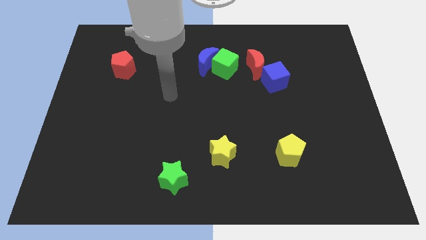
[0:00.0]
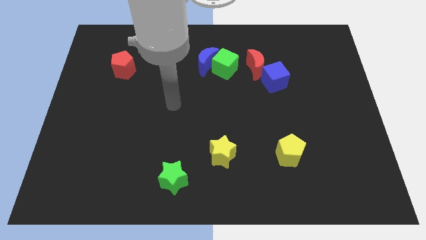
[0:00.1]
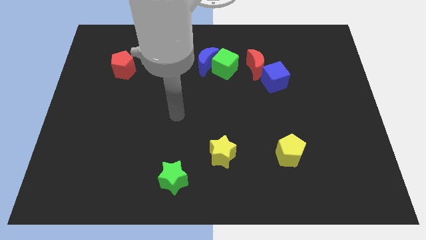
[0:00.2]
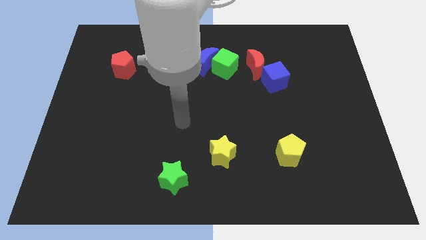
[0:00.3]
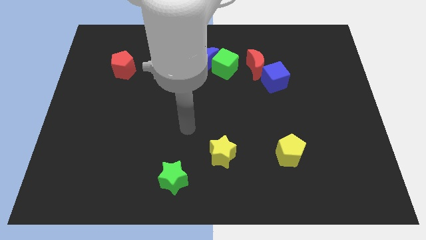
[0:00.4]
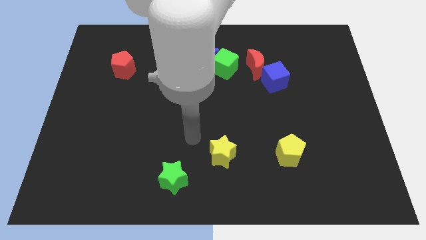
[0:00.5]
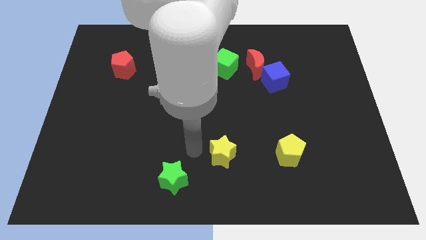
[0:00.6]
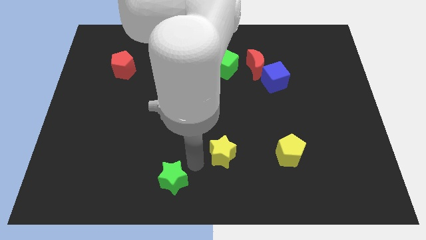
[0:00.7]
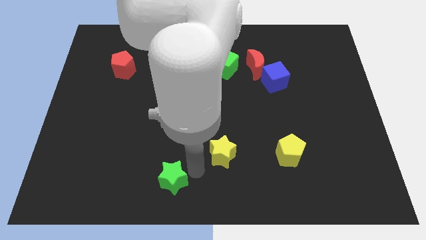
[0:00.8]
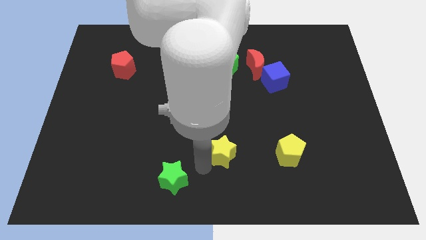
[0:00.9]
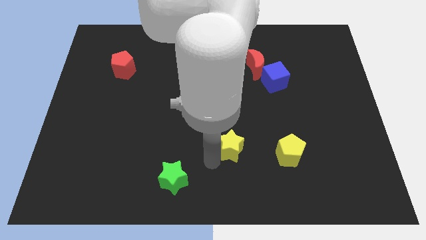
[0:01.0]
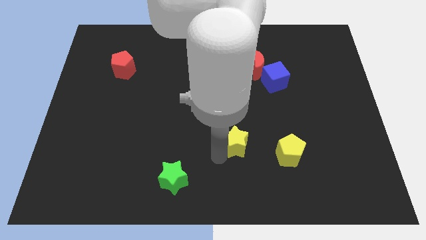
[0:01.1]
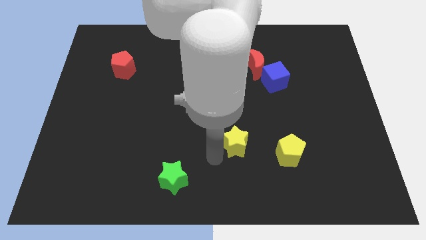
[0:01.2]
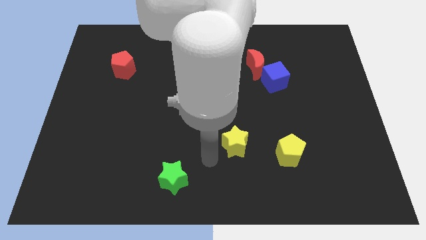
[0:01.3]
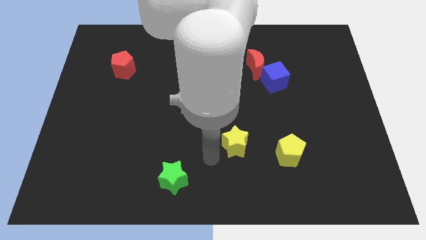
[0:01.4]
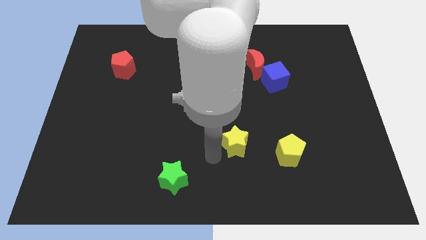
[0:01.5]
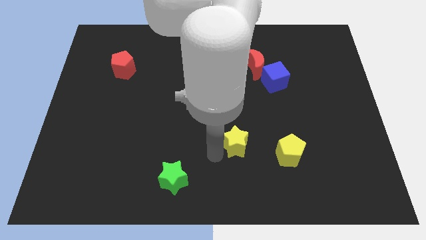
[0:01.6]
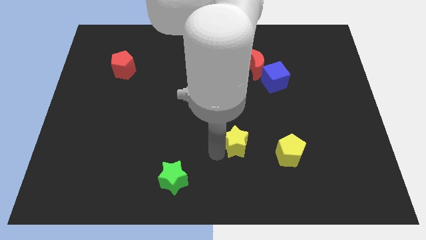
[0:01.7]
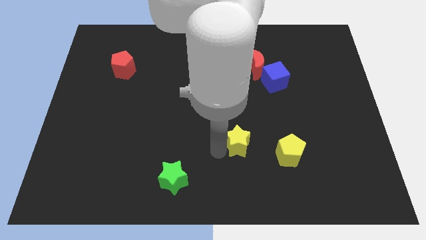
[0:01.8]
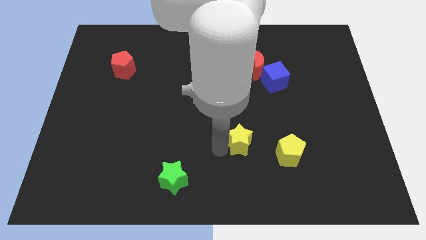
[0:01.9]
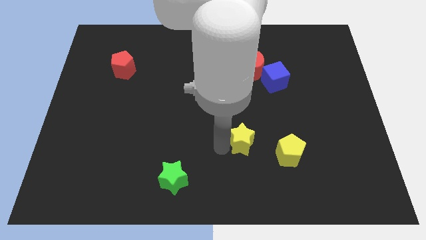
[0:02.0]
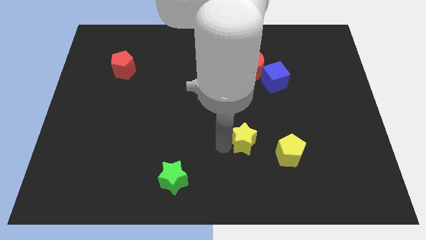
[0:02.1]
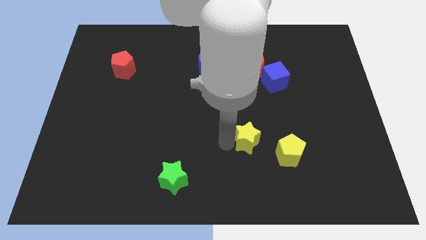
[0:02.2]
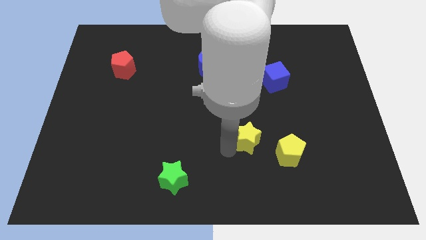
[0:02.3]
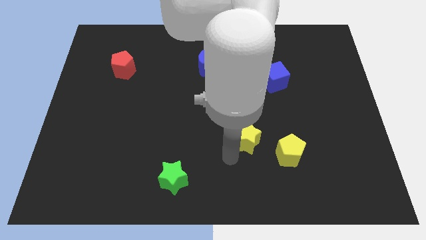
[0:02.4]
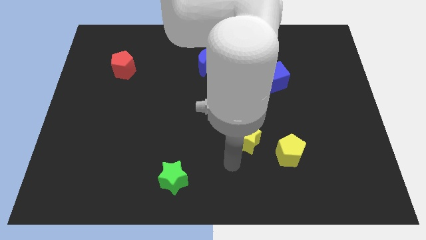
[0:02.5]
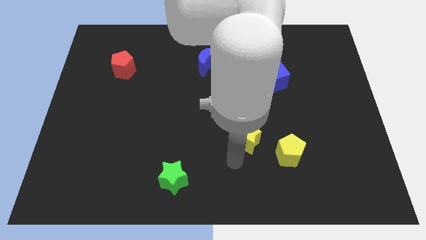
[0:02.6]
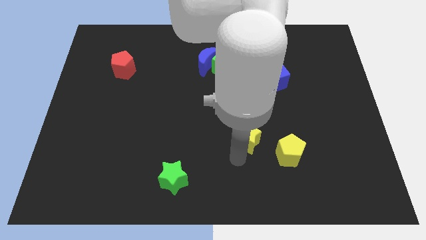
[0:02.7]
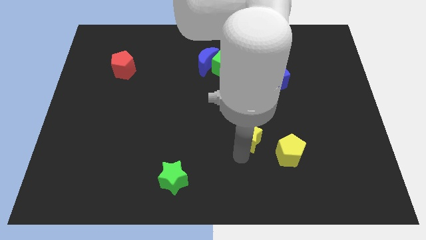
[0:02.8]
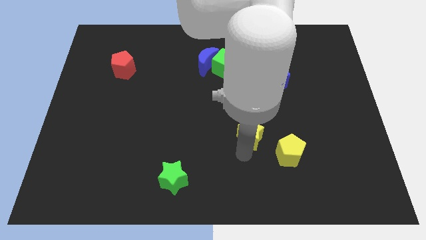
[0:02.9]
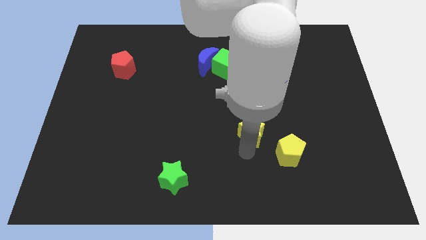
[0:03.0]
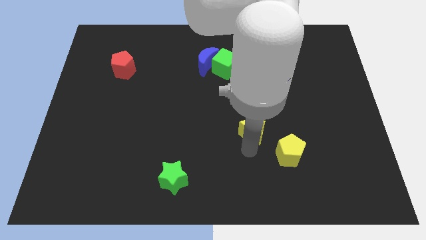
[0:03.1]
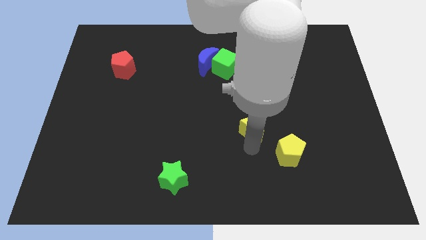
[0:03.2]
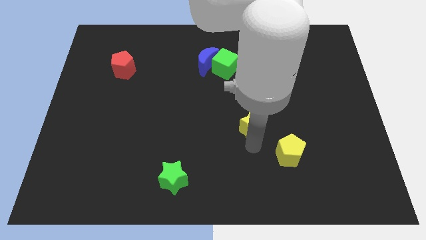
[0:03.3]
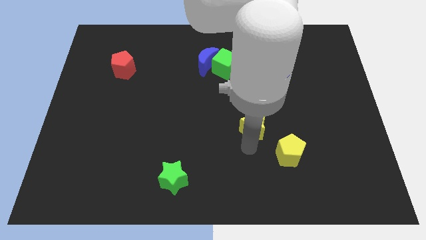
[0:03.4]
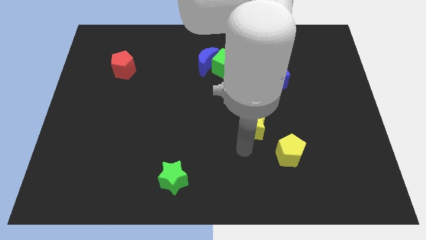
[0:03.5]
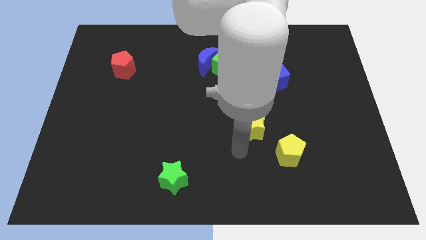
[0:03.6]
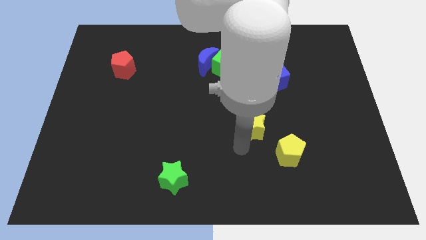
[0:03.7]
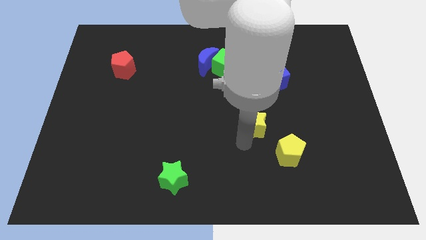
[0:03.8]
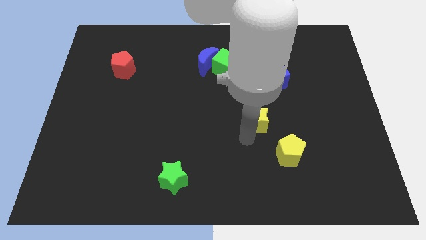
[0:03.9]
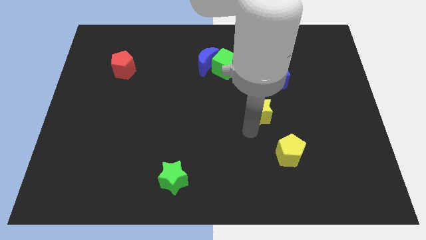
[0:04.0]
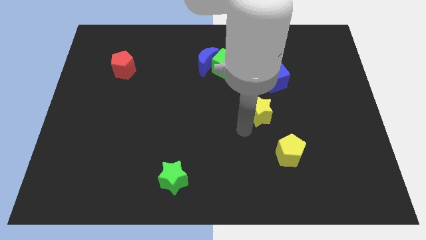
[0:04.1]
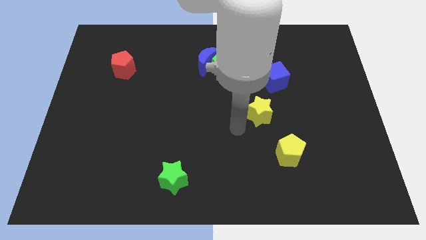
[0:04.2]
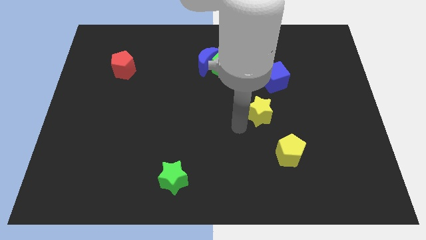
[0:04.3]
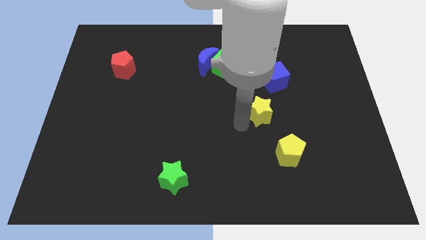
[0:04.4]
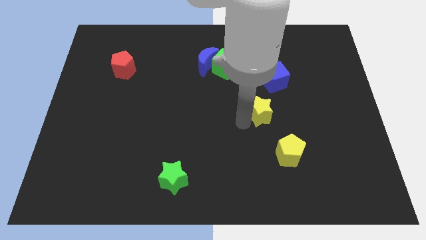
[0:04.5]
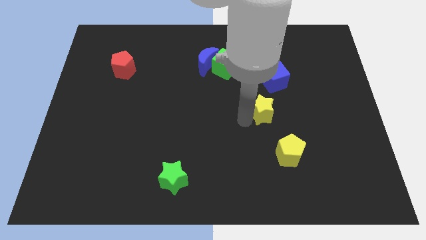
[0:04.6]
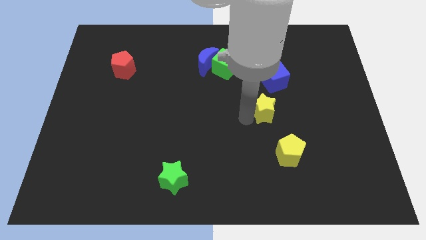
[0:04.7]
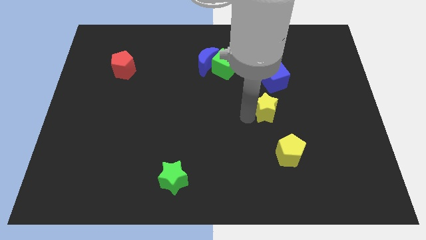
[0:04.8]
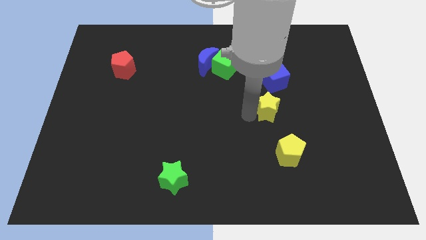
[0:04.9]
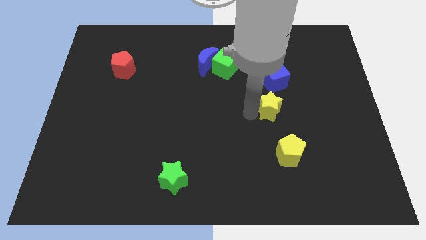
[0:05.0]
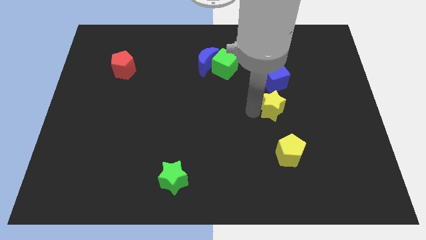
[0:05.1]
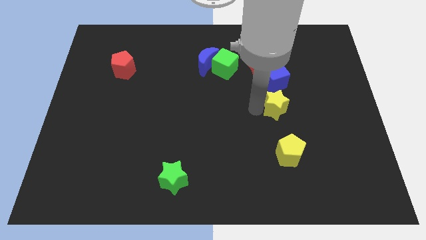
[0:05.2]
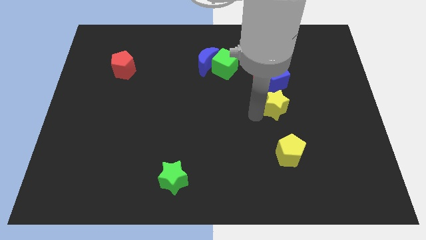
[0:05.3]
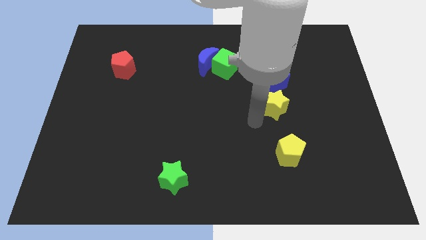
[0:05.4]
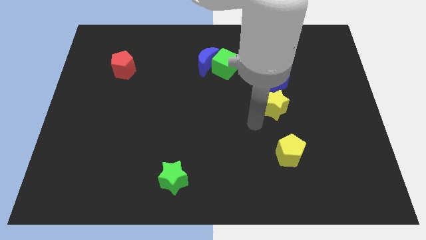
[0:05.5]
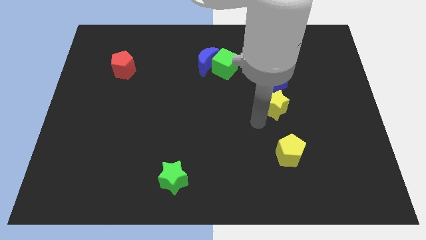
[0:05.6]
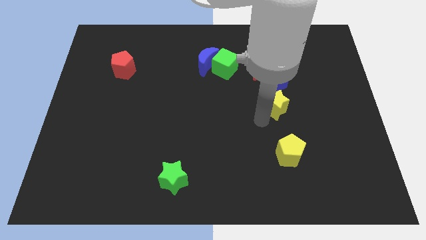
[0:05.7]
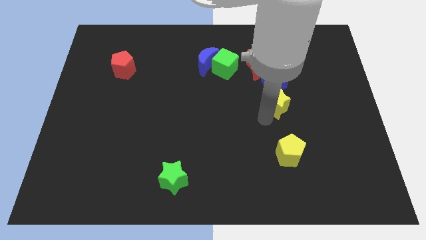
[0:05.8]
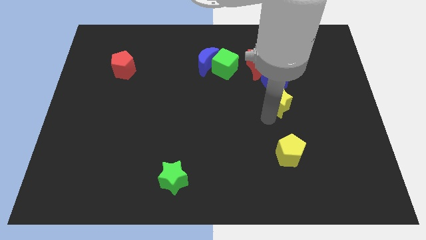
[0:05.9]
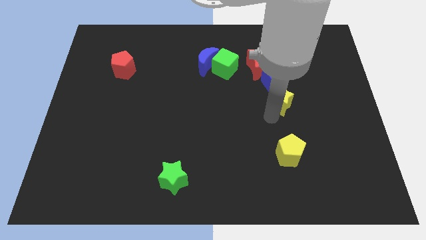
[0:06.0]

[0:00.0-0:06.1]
slide the yellow star upwards and right

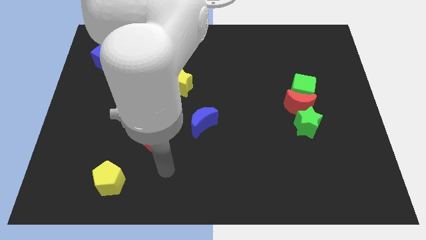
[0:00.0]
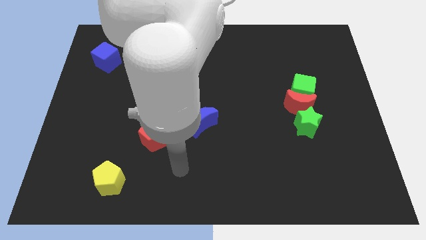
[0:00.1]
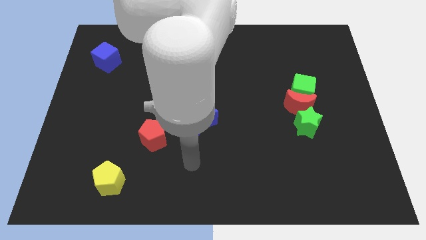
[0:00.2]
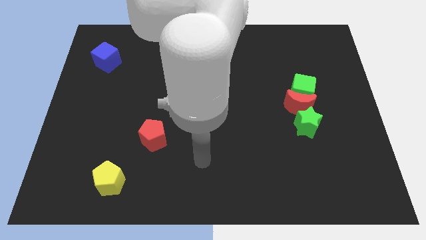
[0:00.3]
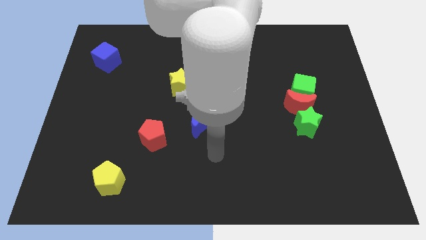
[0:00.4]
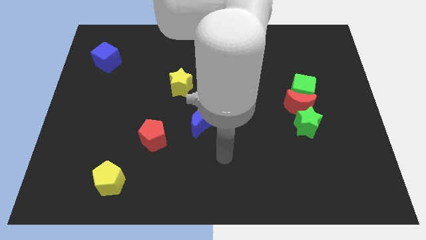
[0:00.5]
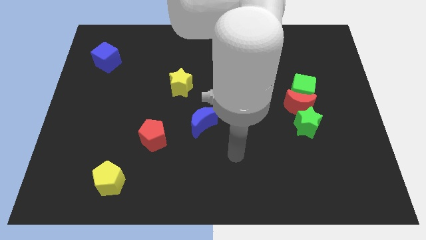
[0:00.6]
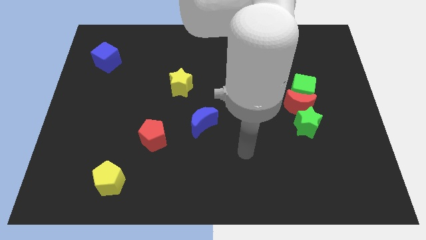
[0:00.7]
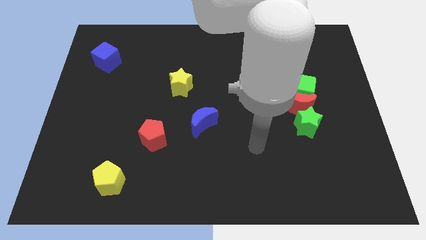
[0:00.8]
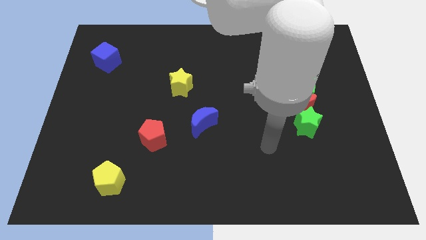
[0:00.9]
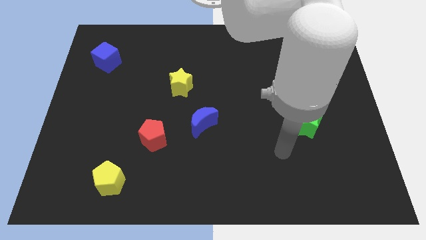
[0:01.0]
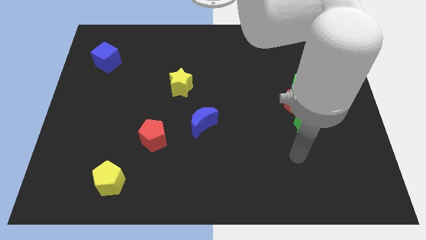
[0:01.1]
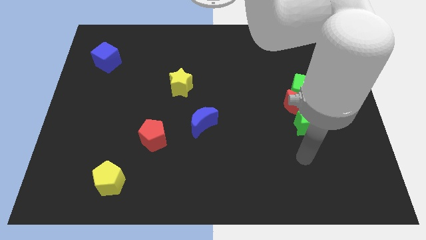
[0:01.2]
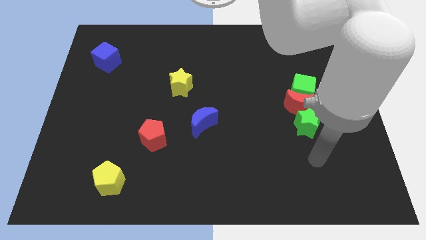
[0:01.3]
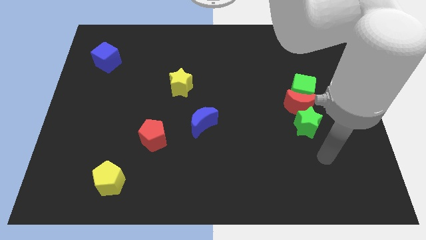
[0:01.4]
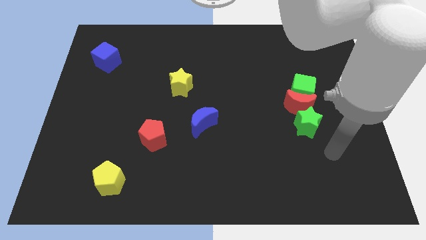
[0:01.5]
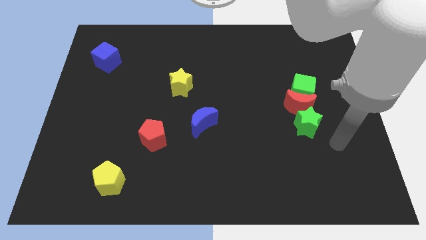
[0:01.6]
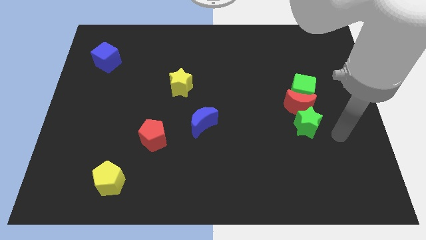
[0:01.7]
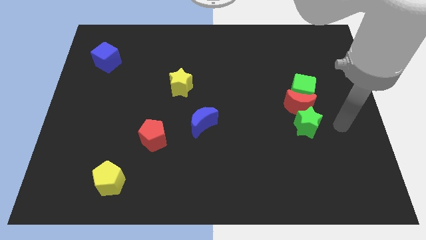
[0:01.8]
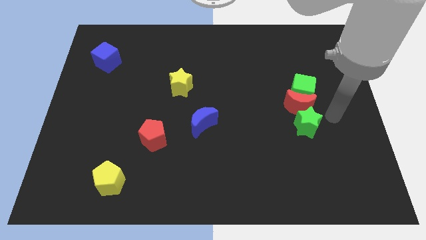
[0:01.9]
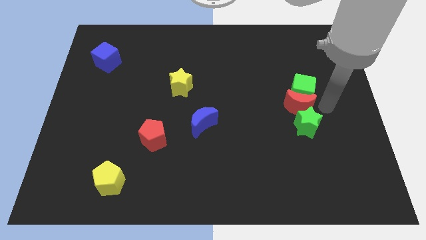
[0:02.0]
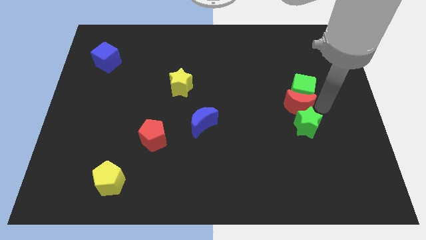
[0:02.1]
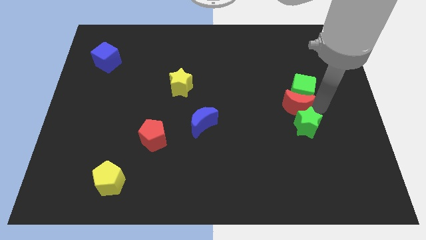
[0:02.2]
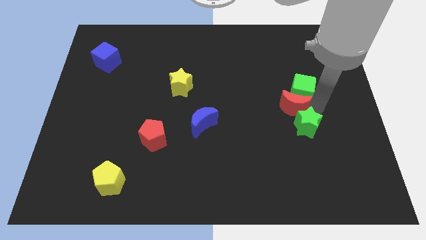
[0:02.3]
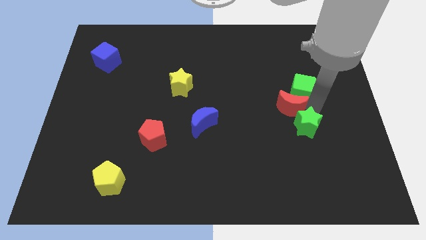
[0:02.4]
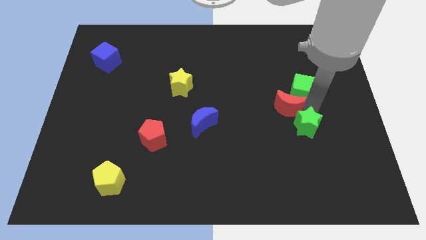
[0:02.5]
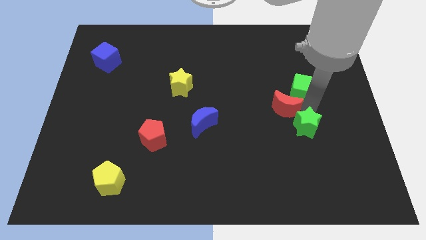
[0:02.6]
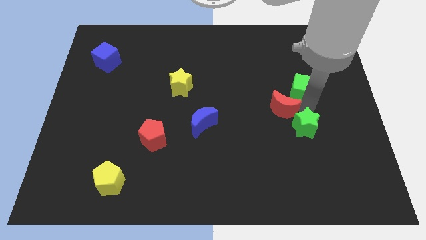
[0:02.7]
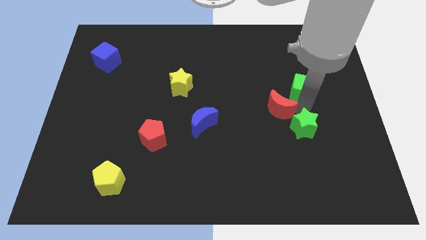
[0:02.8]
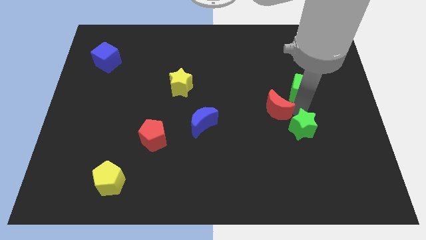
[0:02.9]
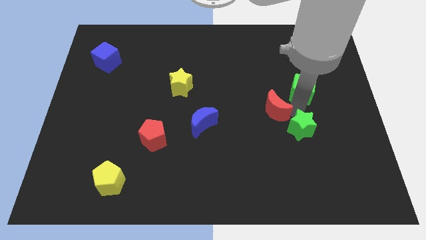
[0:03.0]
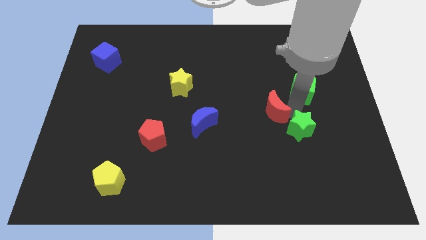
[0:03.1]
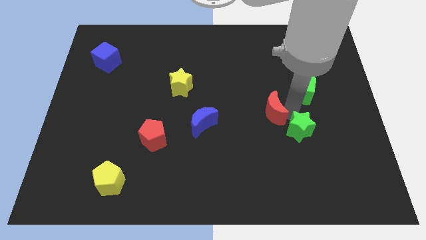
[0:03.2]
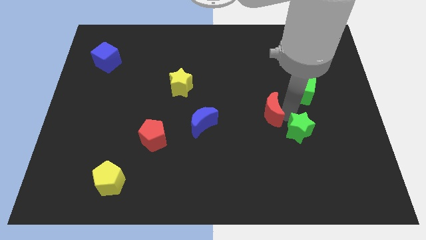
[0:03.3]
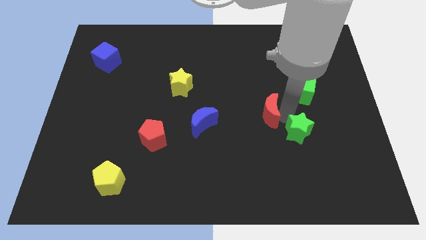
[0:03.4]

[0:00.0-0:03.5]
slide the red moon to the left somewhat
